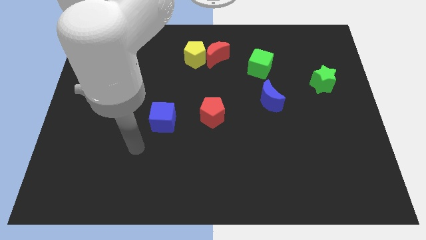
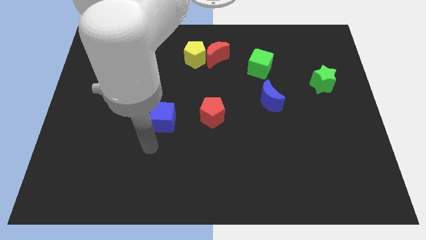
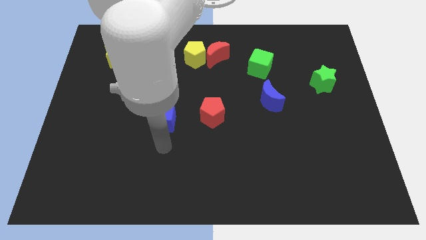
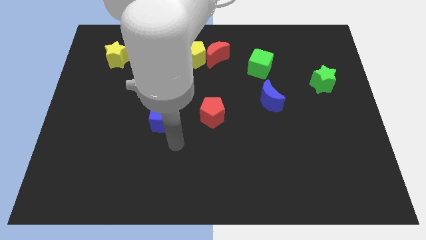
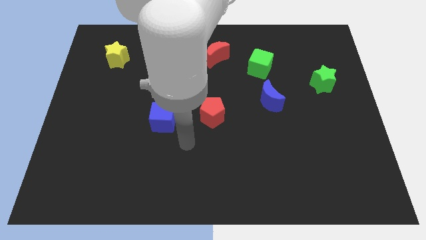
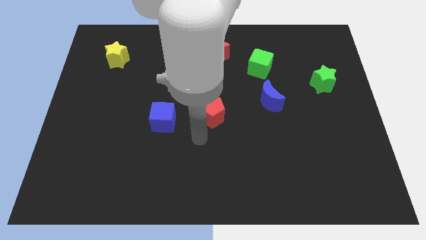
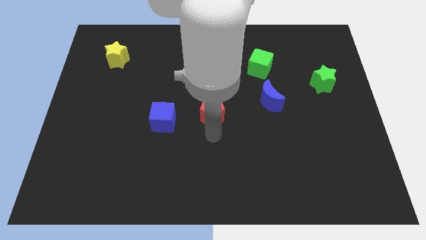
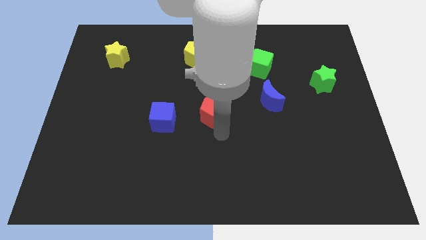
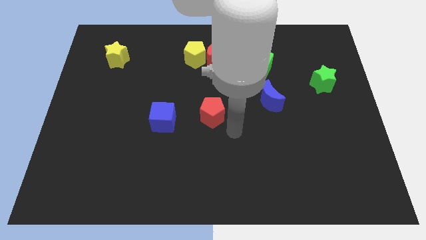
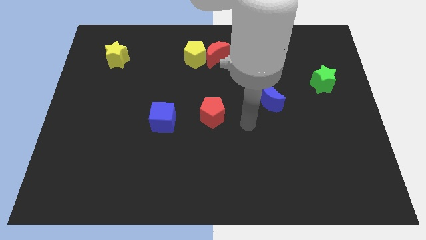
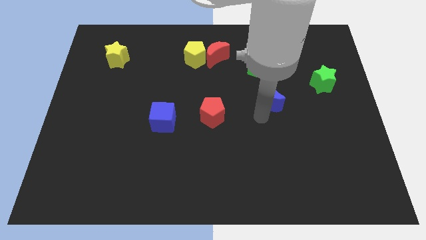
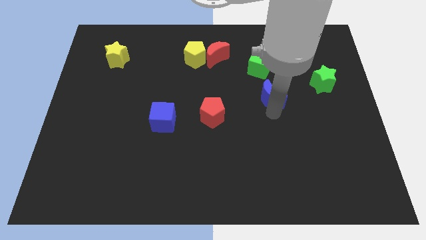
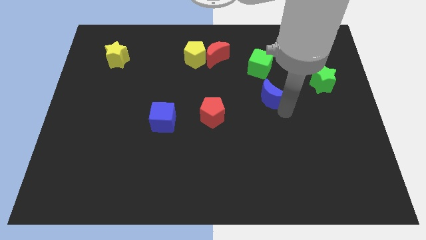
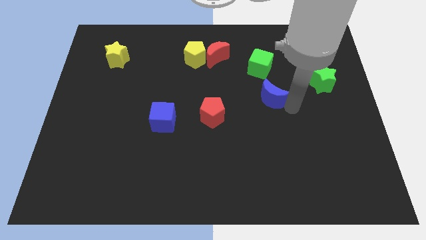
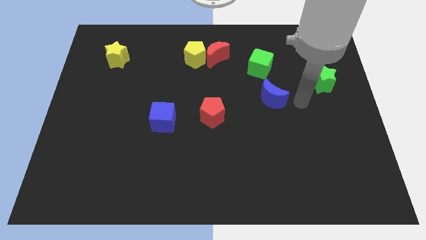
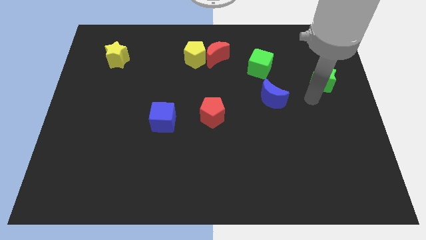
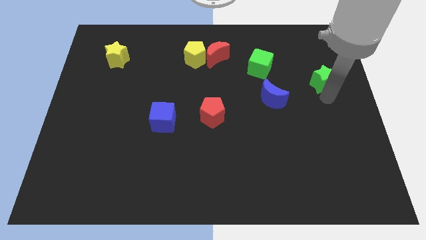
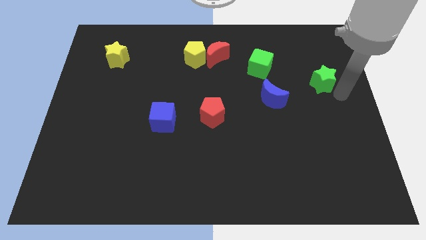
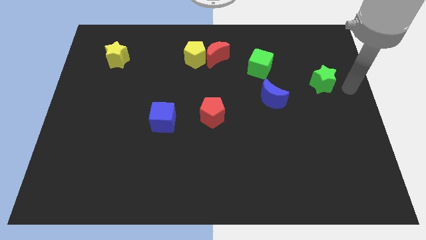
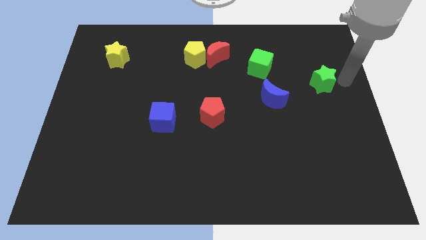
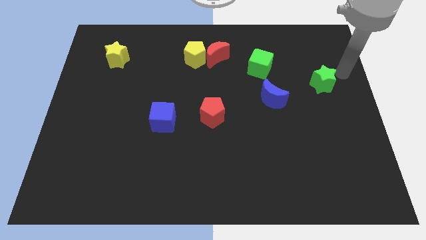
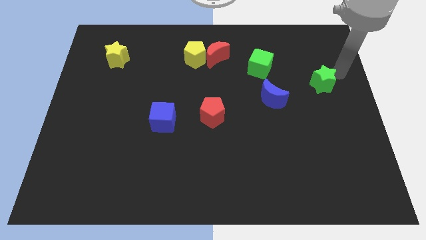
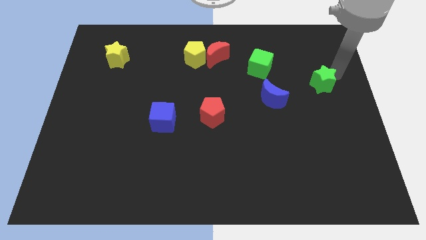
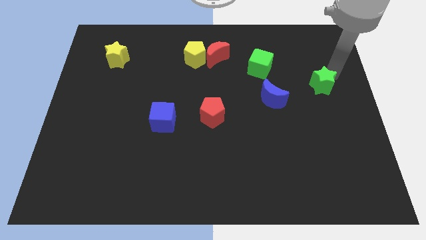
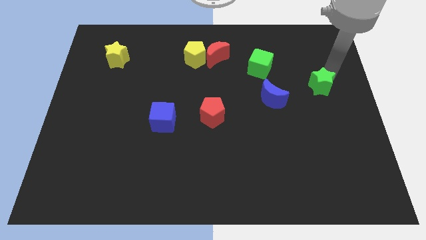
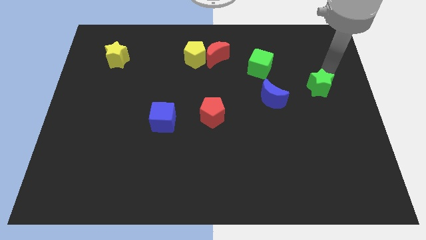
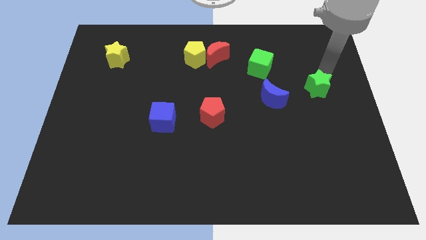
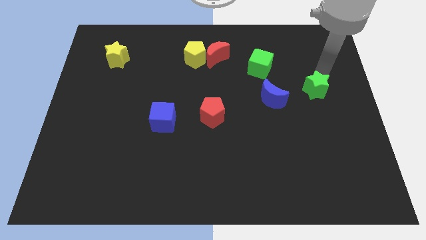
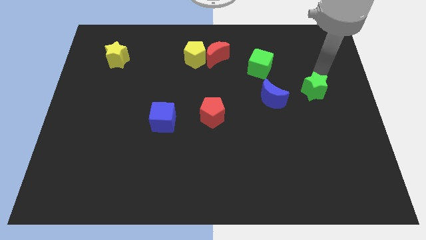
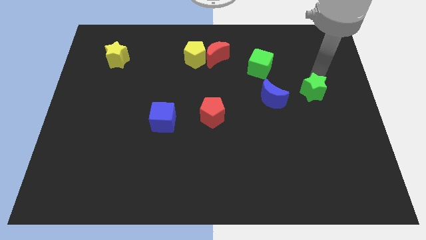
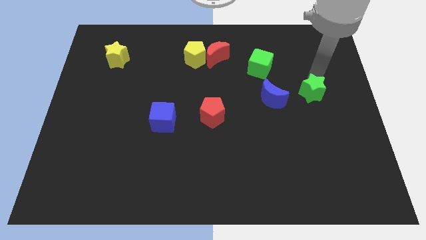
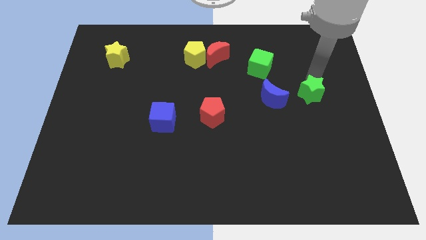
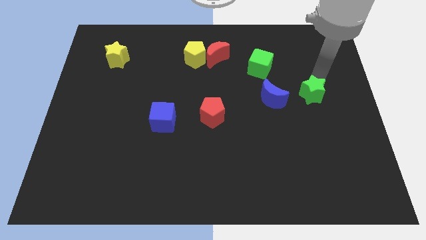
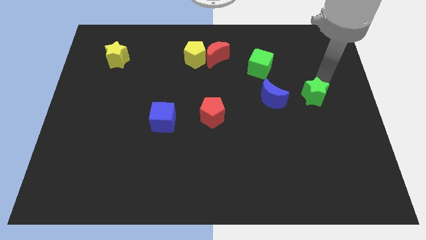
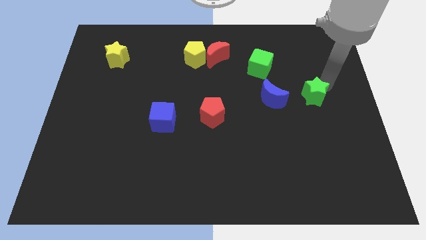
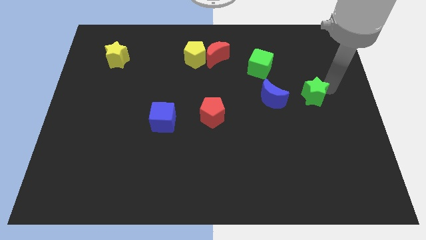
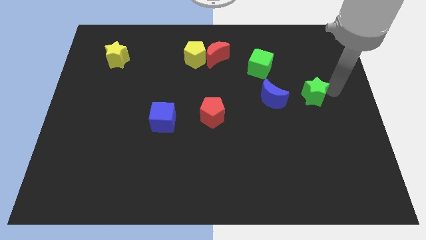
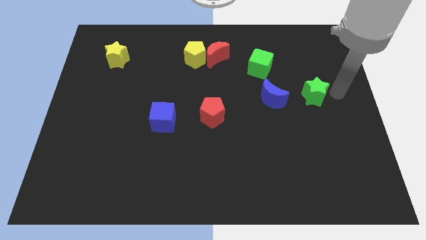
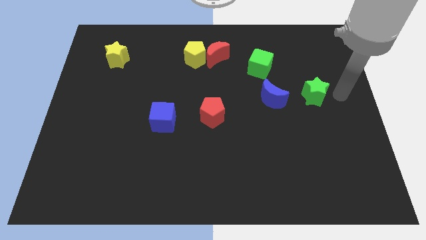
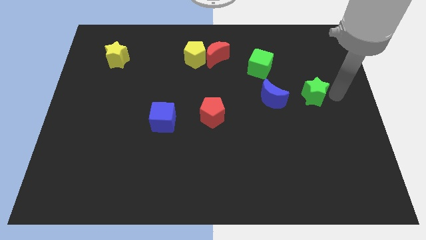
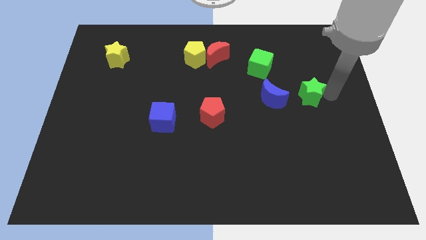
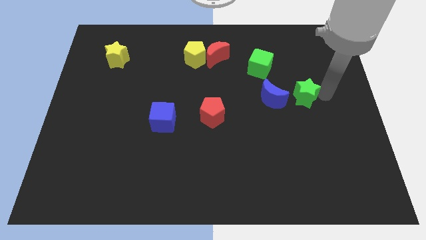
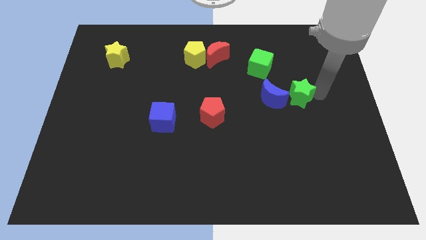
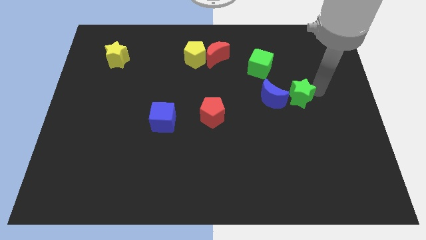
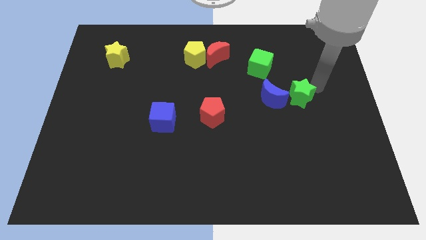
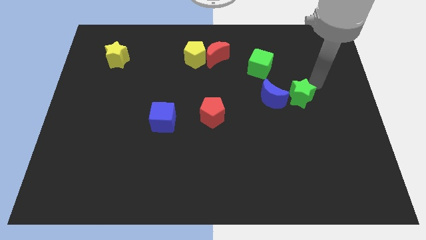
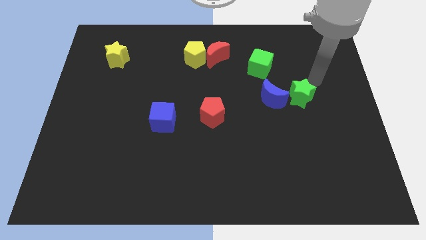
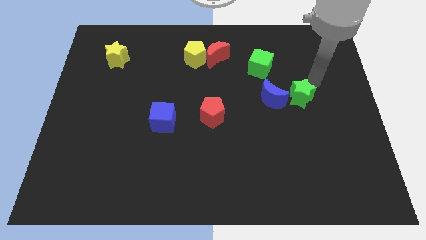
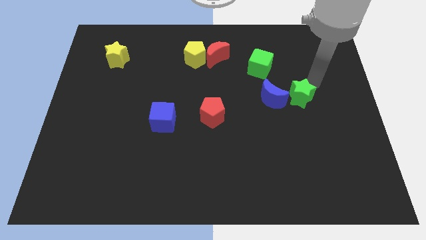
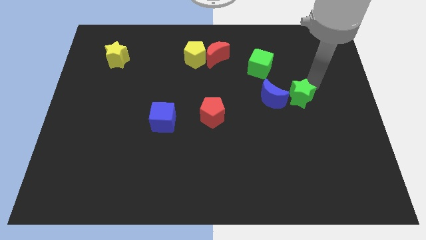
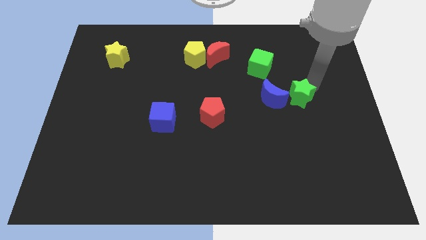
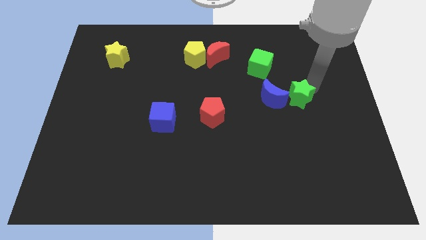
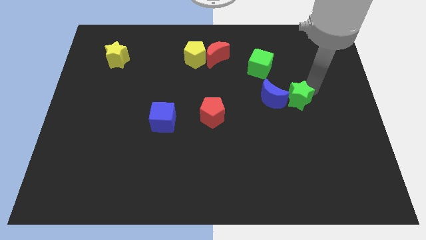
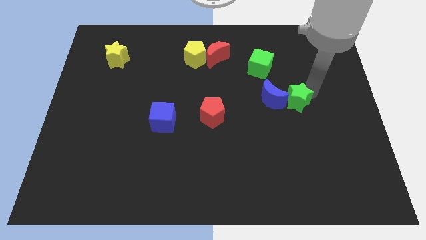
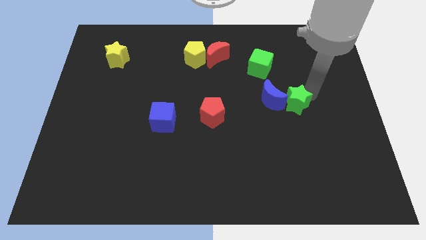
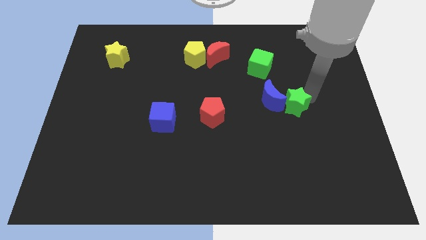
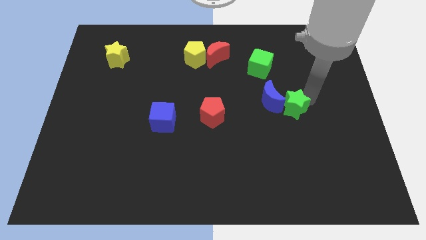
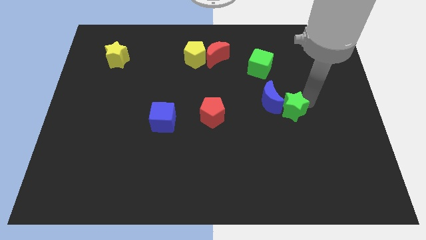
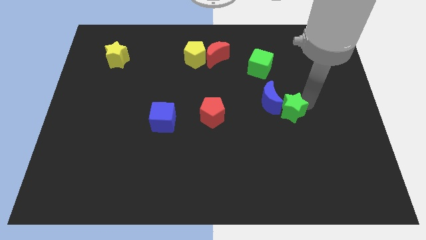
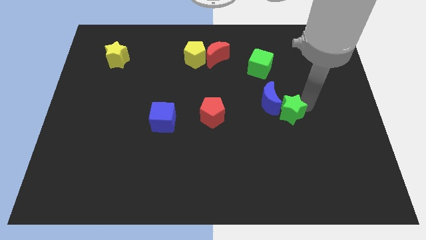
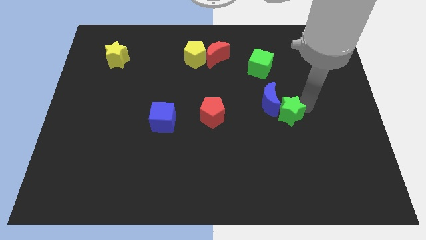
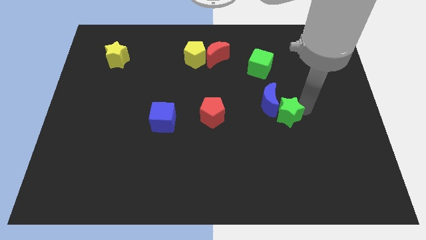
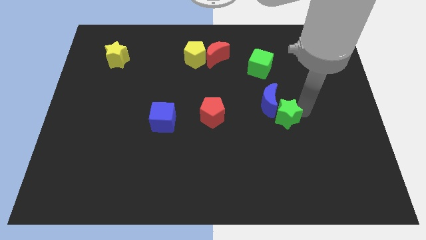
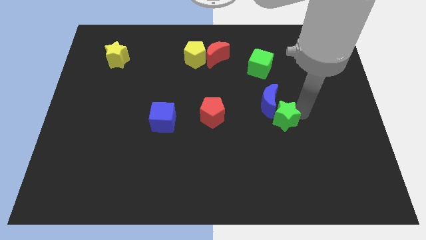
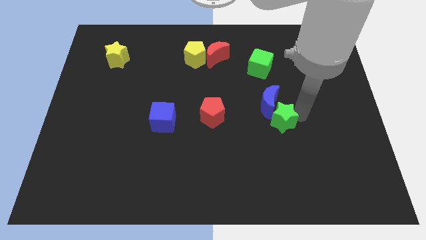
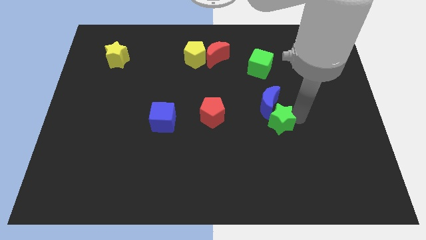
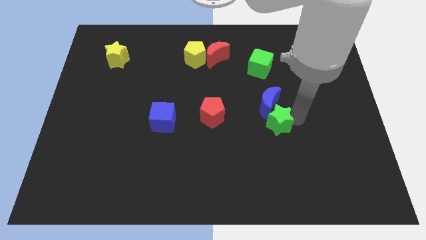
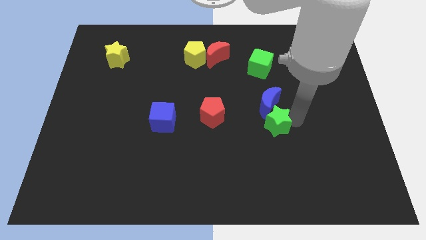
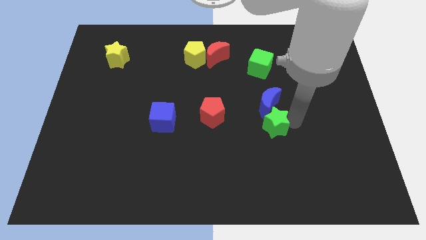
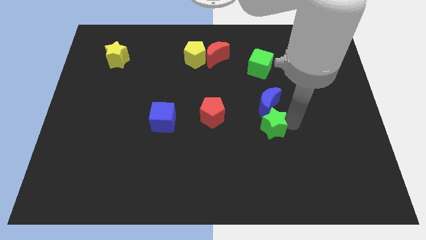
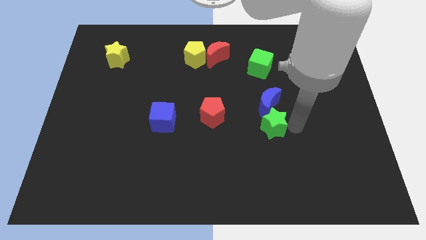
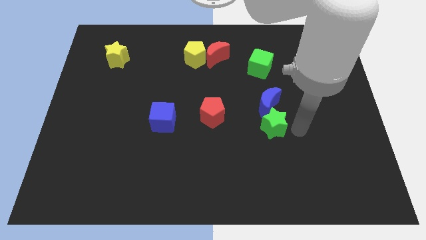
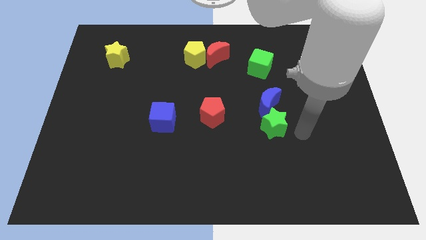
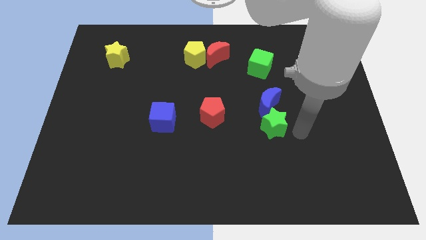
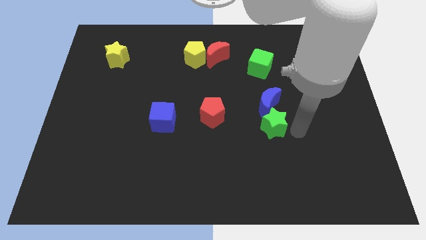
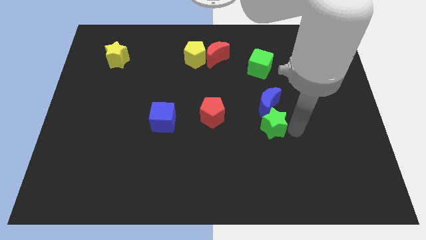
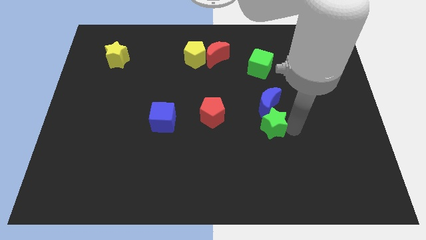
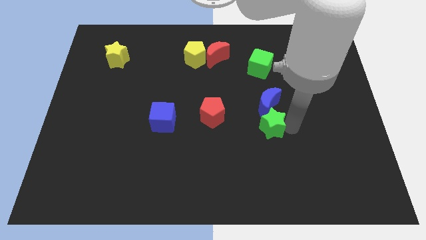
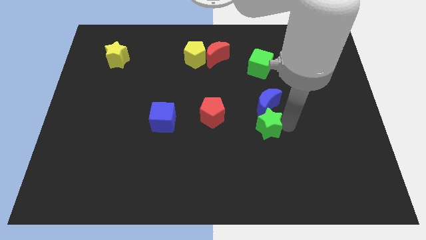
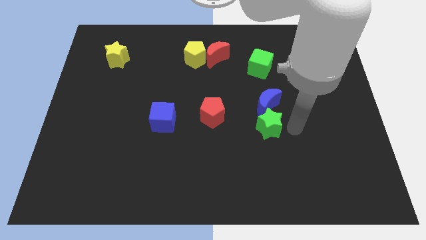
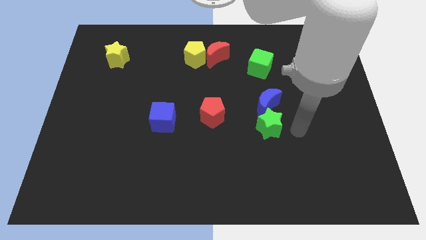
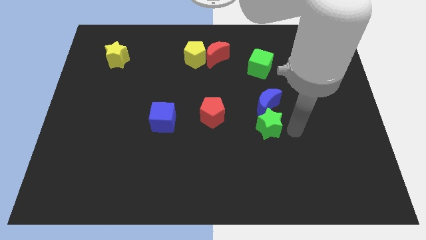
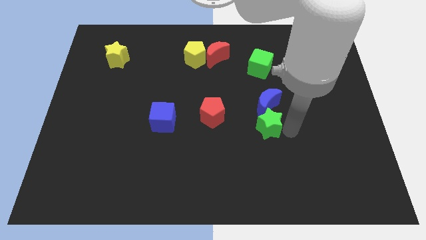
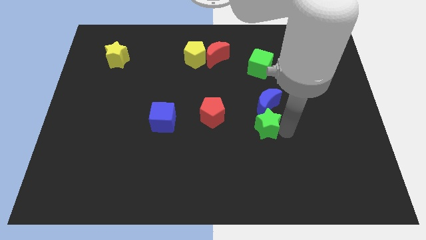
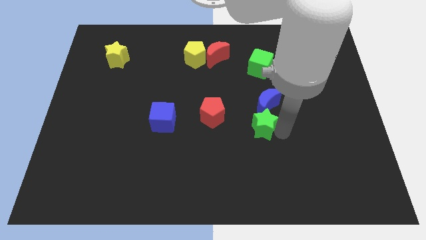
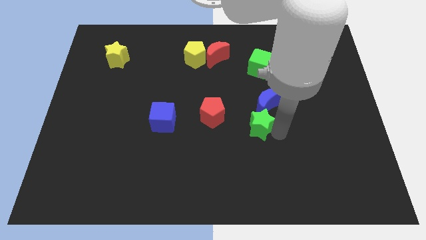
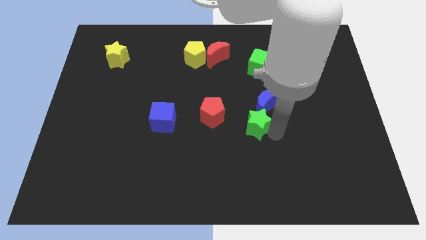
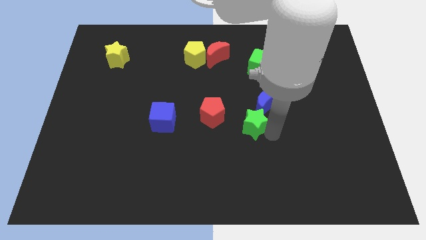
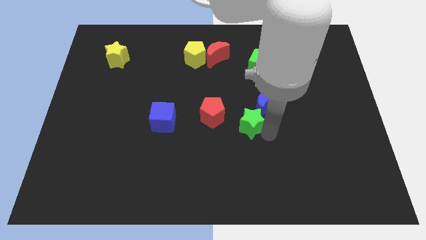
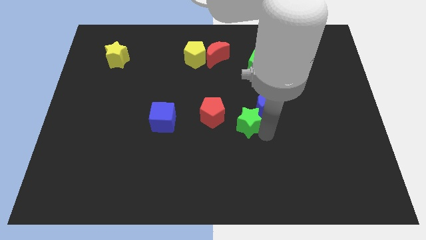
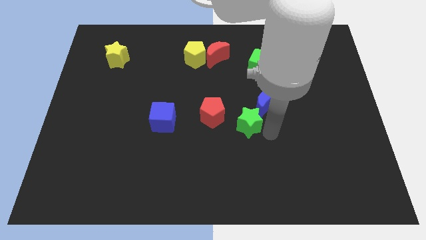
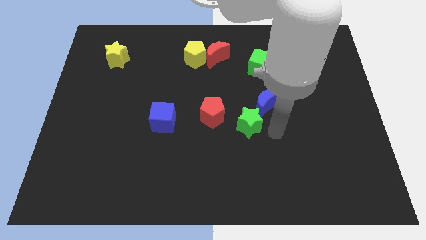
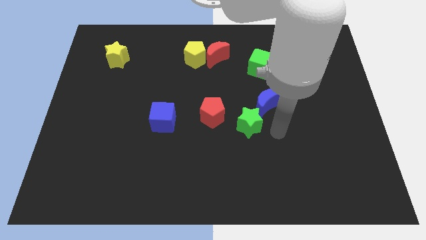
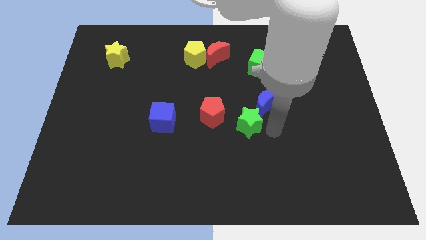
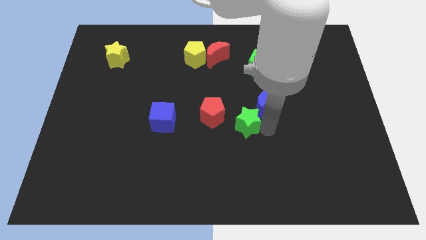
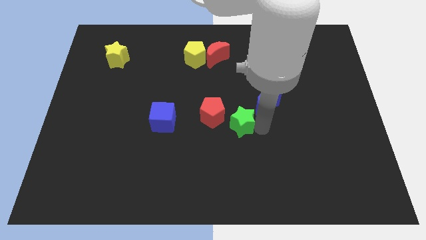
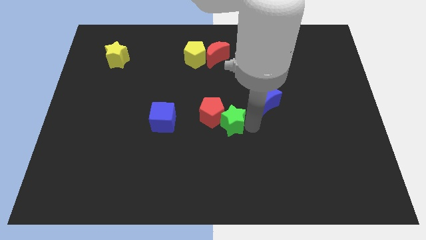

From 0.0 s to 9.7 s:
slide the green star to the right of the blue cube
